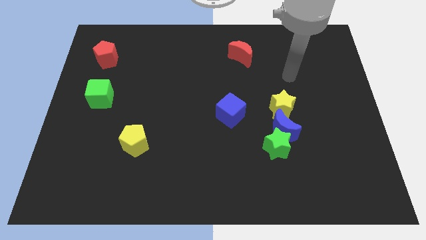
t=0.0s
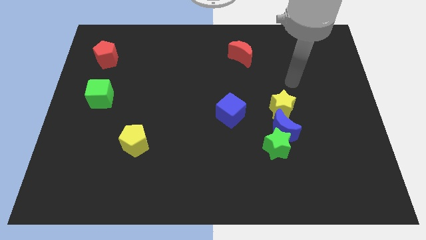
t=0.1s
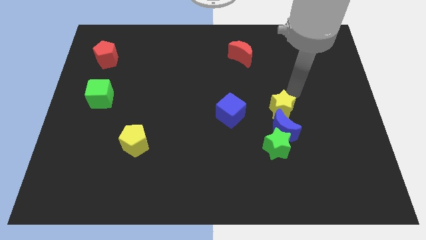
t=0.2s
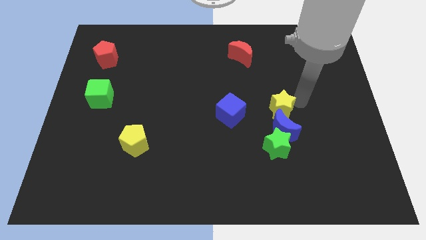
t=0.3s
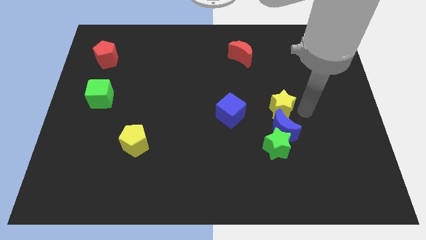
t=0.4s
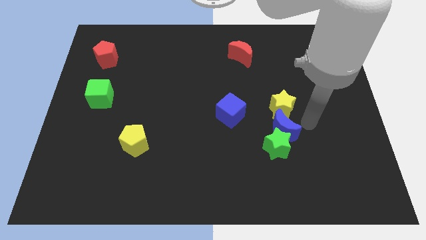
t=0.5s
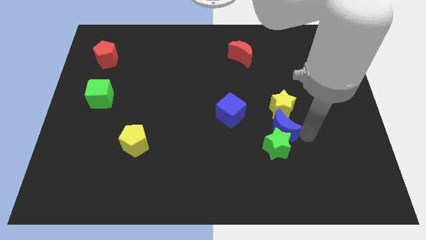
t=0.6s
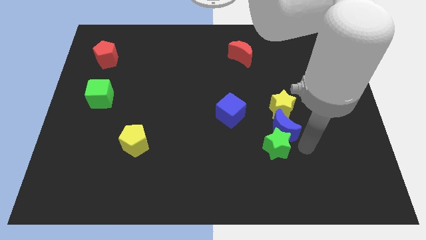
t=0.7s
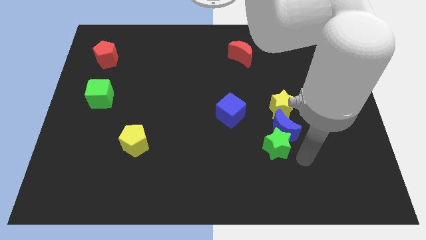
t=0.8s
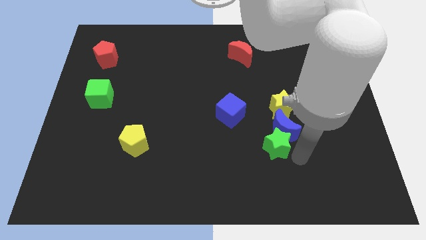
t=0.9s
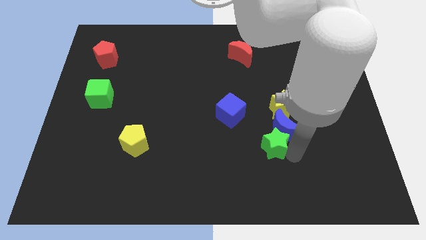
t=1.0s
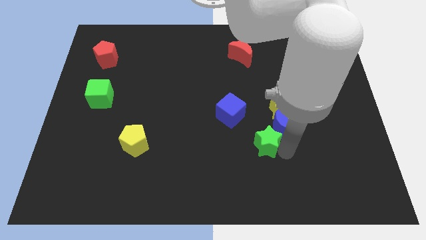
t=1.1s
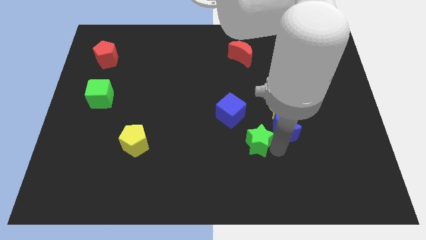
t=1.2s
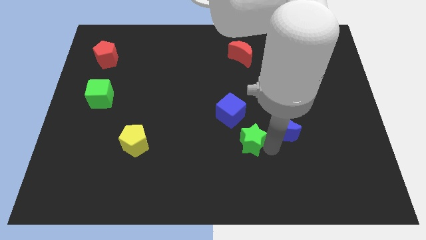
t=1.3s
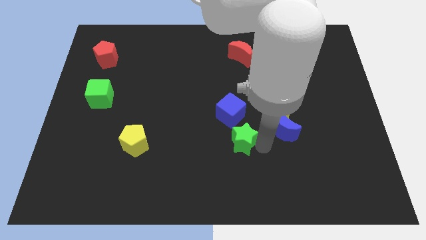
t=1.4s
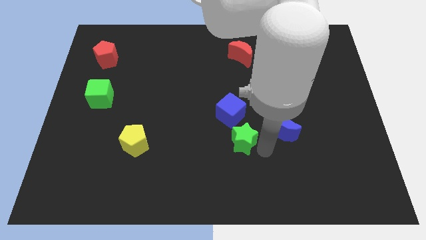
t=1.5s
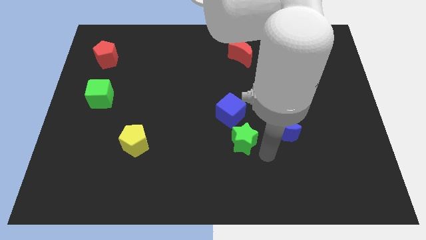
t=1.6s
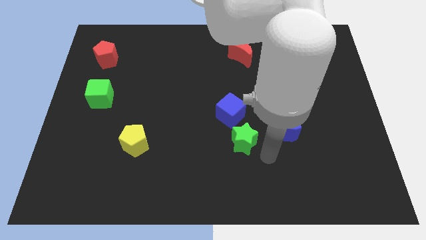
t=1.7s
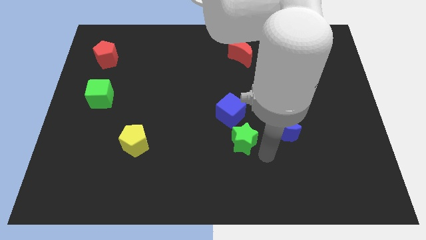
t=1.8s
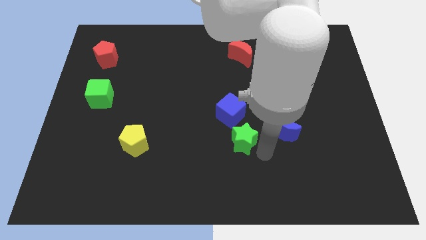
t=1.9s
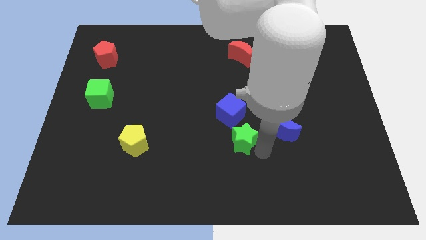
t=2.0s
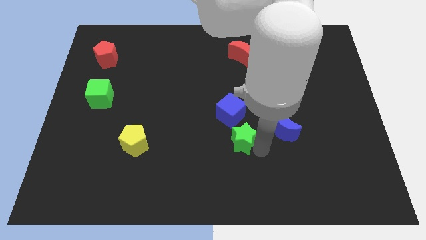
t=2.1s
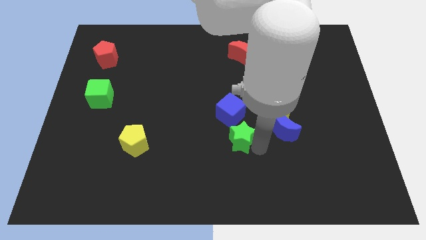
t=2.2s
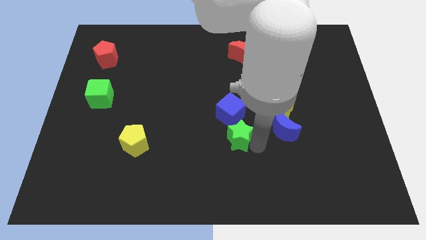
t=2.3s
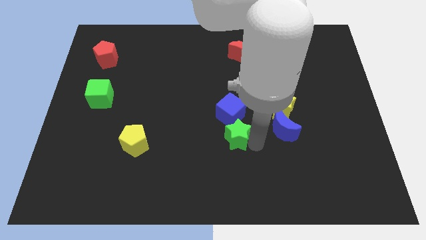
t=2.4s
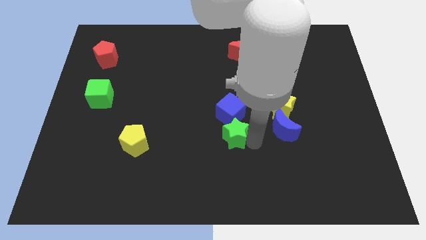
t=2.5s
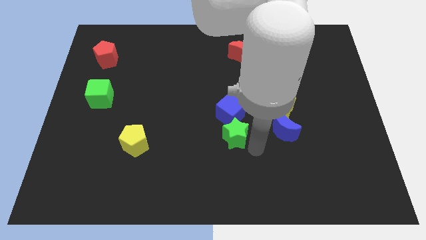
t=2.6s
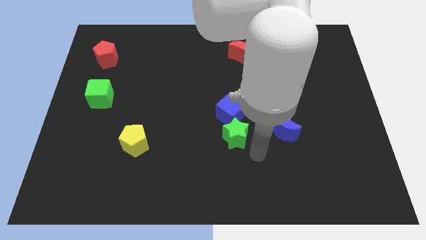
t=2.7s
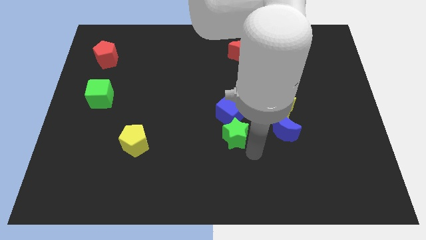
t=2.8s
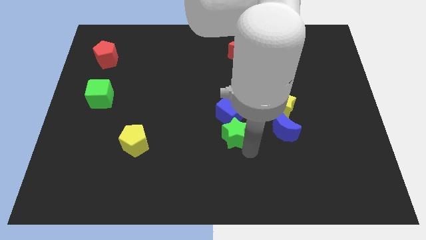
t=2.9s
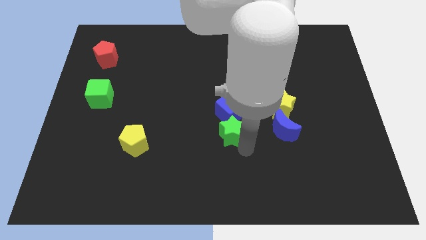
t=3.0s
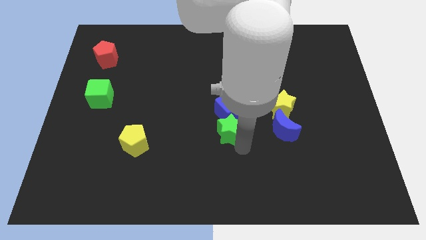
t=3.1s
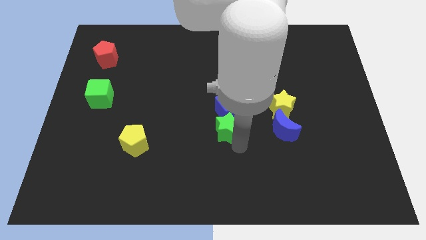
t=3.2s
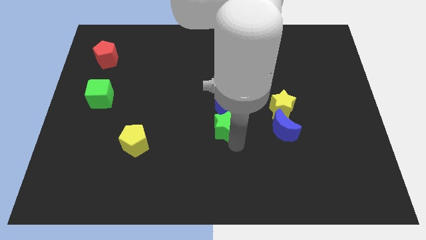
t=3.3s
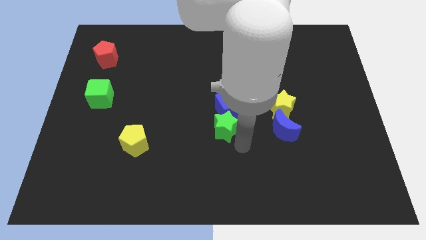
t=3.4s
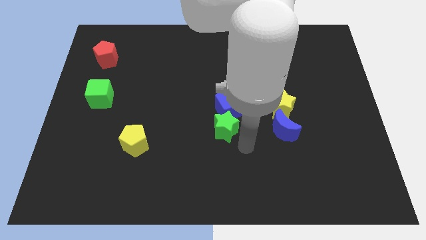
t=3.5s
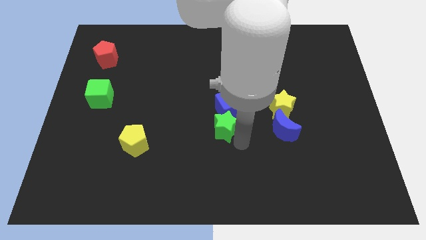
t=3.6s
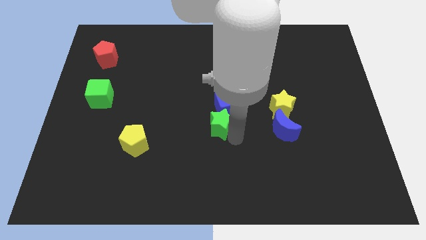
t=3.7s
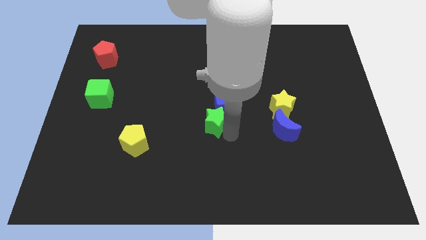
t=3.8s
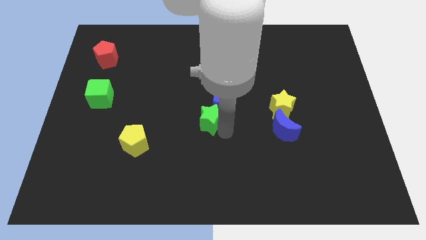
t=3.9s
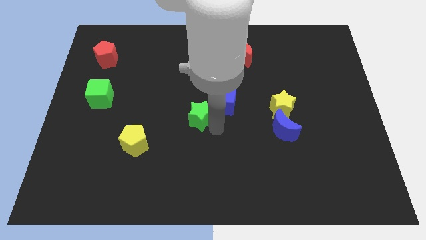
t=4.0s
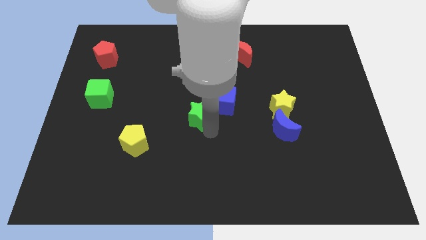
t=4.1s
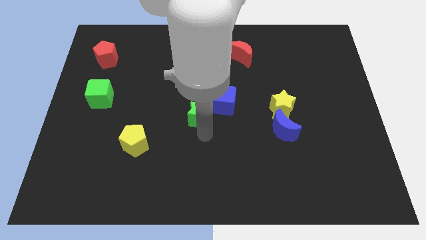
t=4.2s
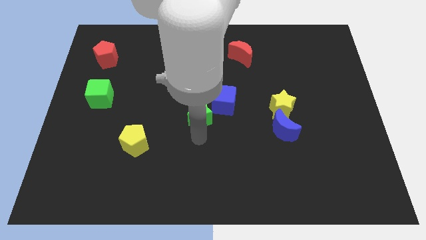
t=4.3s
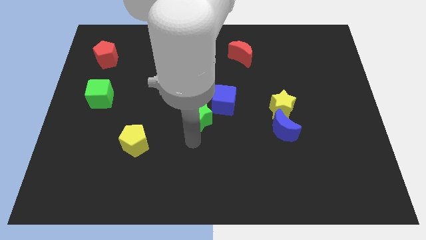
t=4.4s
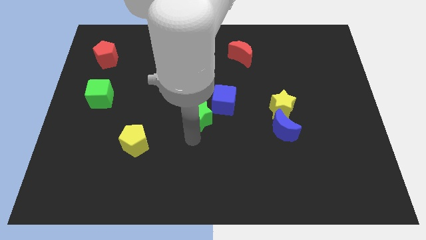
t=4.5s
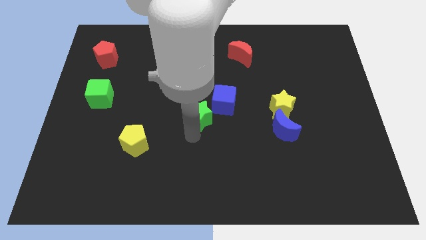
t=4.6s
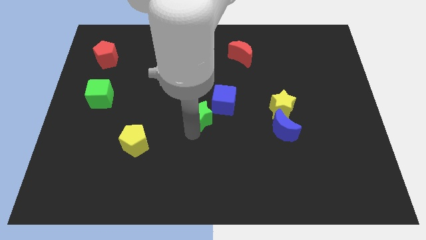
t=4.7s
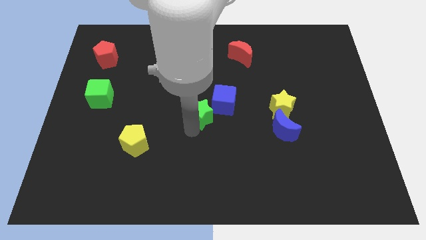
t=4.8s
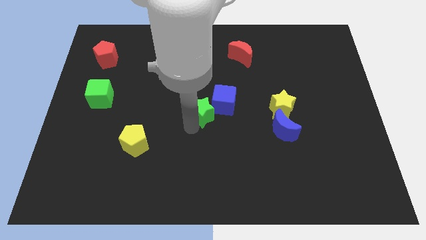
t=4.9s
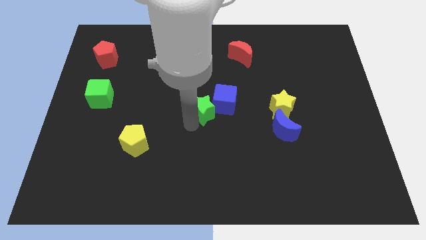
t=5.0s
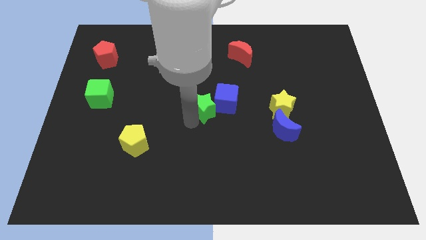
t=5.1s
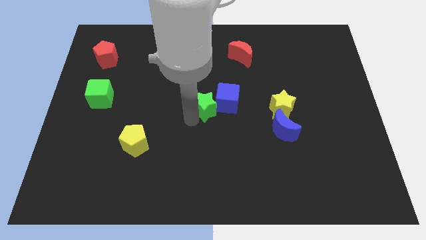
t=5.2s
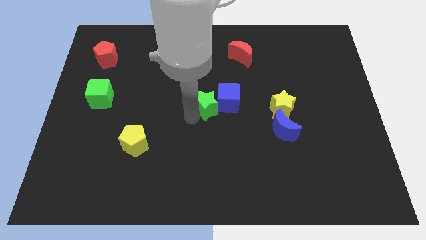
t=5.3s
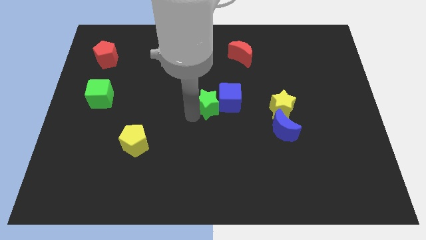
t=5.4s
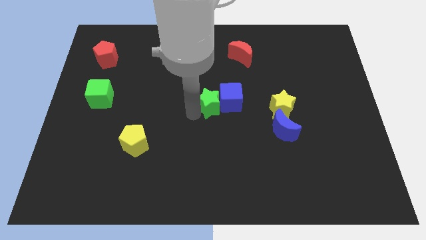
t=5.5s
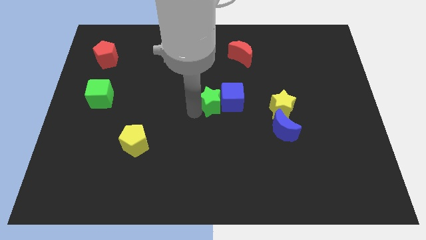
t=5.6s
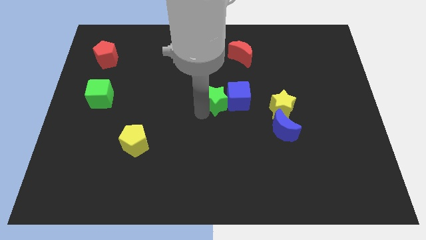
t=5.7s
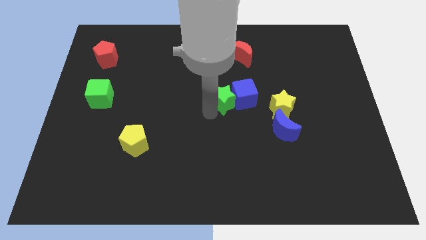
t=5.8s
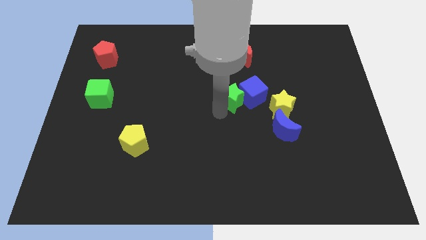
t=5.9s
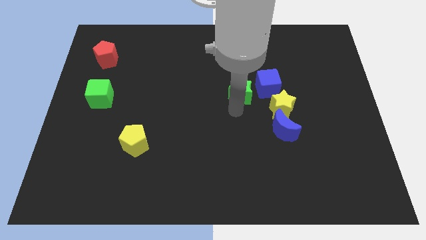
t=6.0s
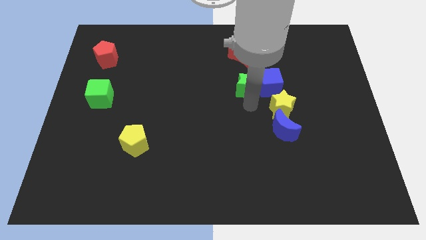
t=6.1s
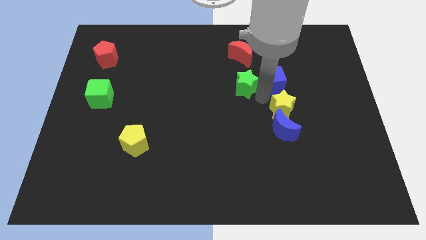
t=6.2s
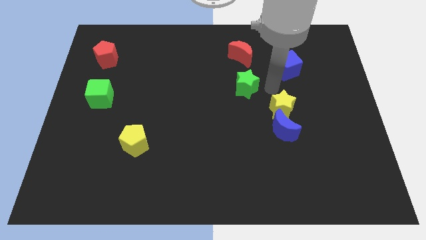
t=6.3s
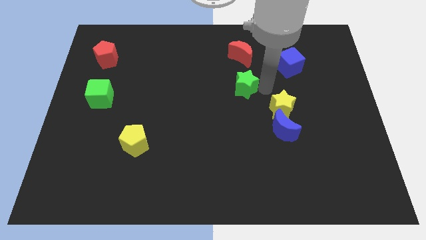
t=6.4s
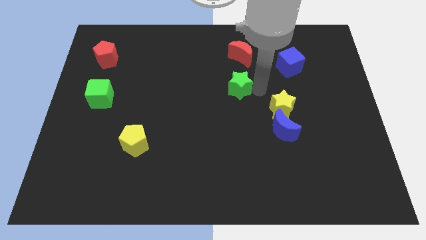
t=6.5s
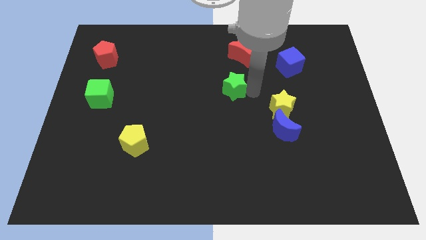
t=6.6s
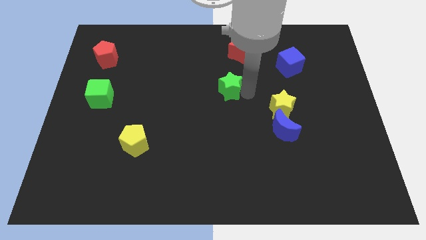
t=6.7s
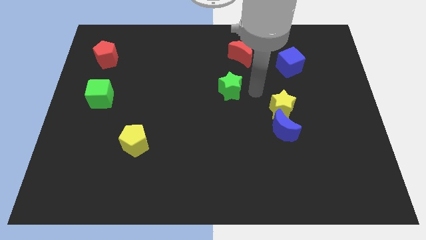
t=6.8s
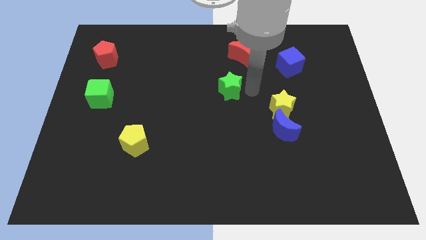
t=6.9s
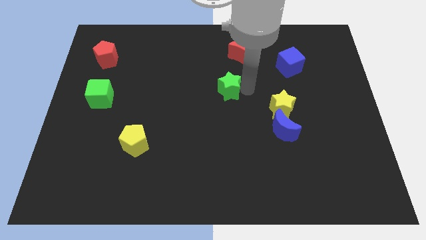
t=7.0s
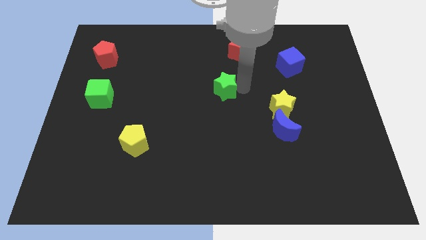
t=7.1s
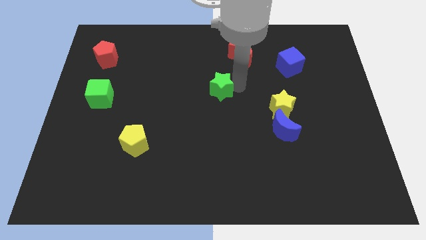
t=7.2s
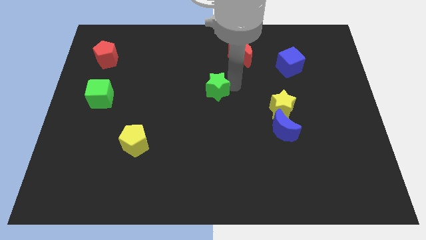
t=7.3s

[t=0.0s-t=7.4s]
move the green star upwards and left diagonally

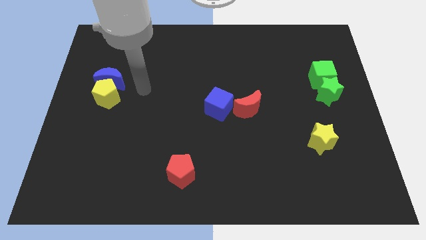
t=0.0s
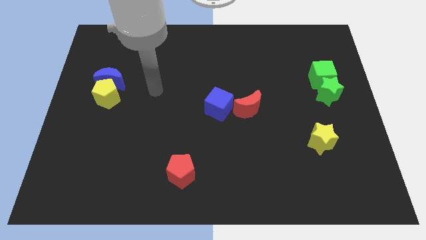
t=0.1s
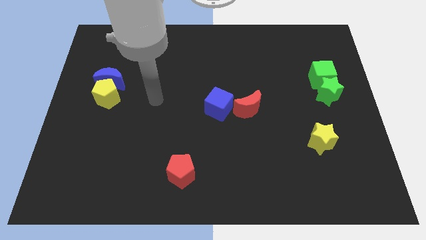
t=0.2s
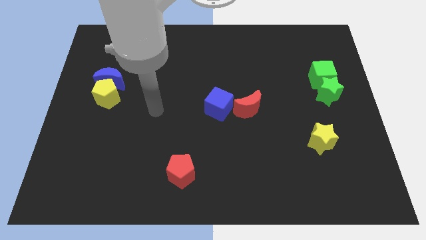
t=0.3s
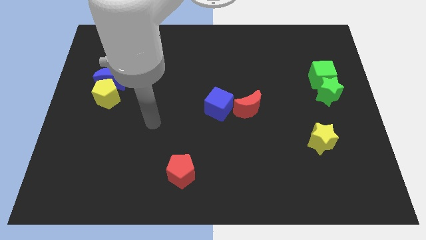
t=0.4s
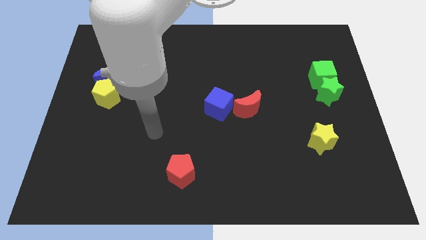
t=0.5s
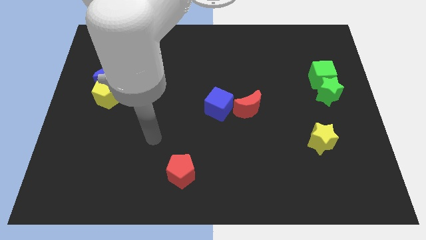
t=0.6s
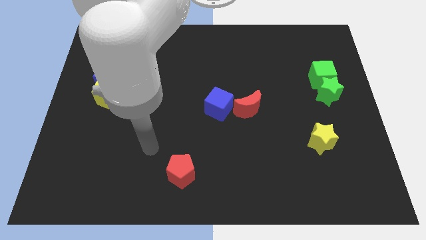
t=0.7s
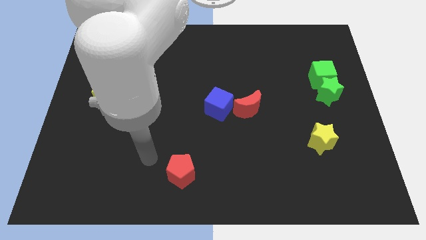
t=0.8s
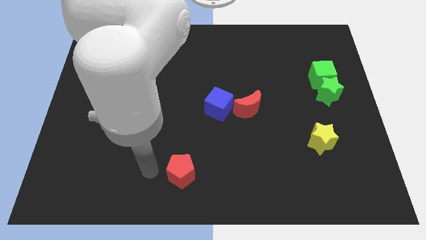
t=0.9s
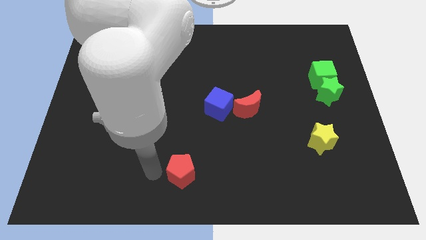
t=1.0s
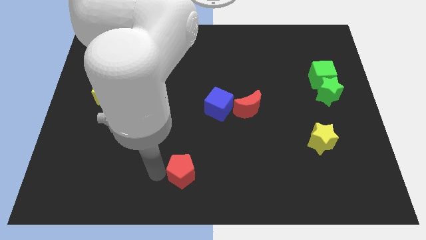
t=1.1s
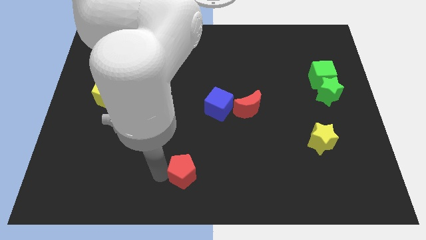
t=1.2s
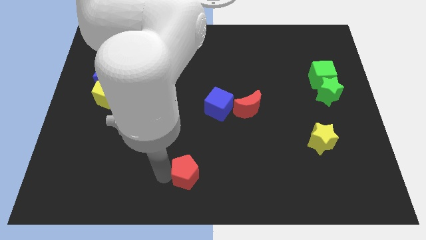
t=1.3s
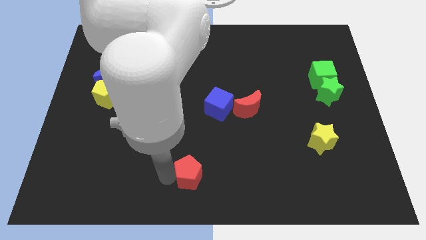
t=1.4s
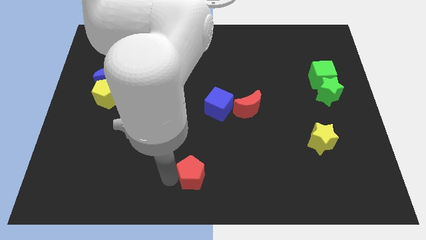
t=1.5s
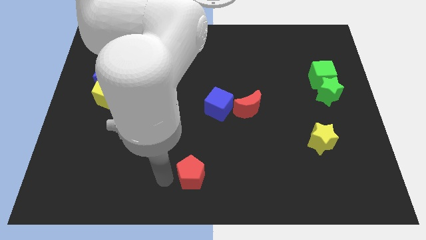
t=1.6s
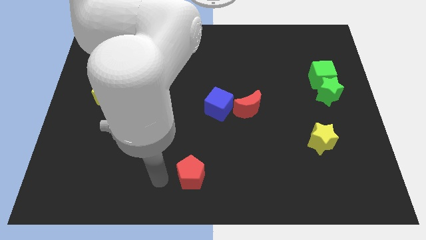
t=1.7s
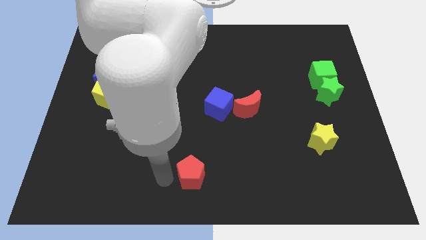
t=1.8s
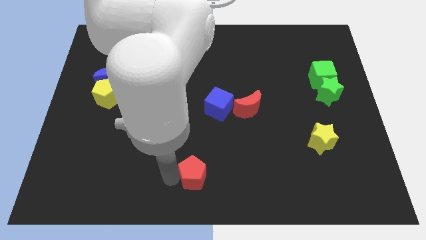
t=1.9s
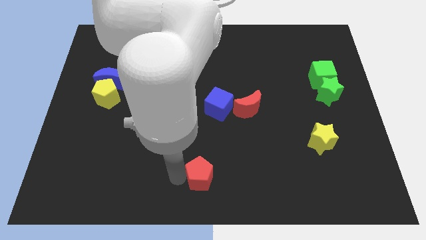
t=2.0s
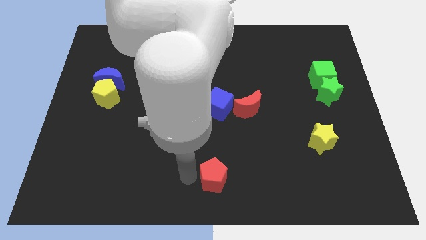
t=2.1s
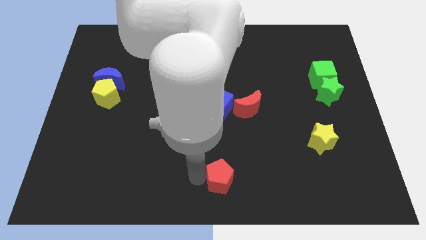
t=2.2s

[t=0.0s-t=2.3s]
move the red pentagon a little bit right
